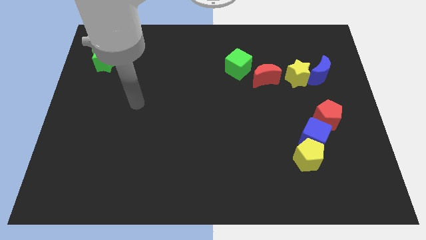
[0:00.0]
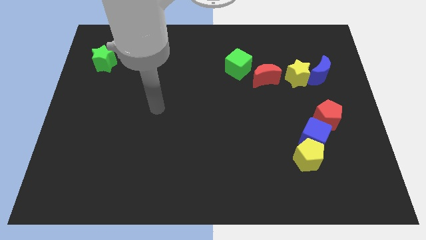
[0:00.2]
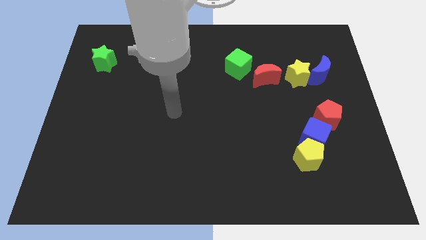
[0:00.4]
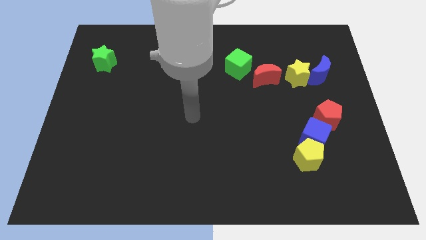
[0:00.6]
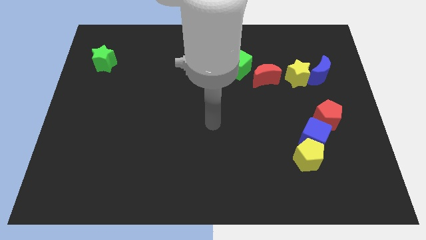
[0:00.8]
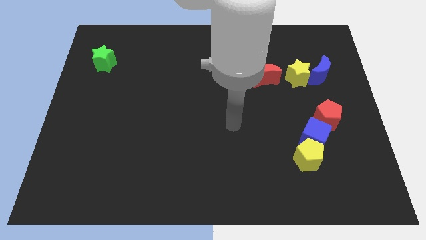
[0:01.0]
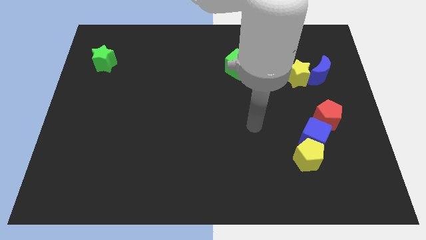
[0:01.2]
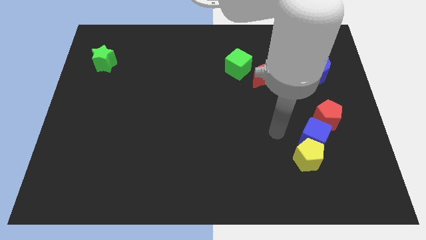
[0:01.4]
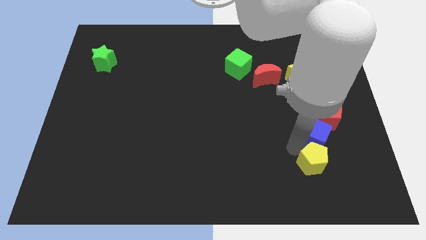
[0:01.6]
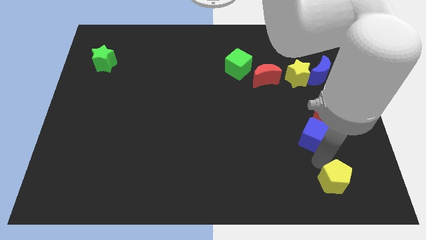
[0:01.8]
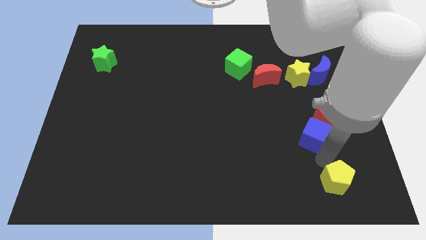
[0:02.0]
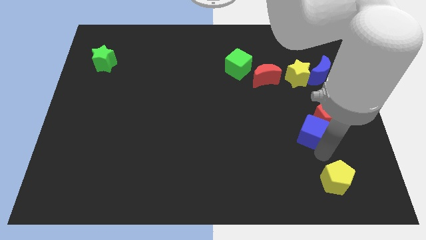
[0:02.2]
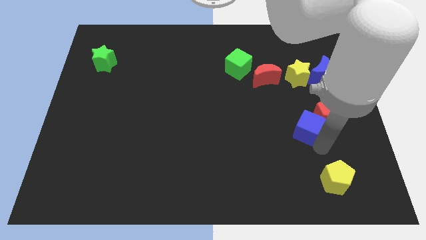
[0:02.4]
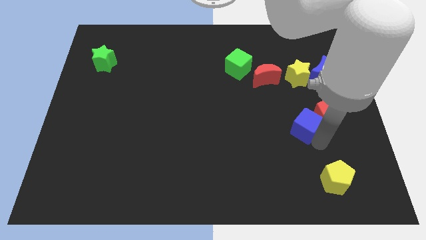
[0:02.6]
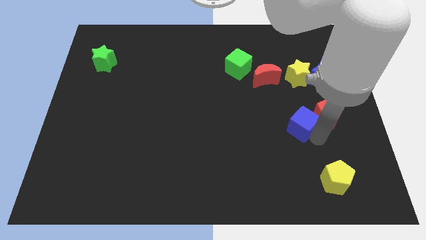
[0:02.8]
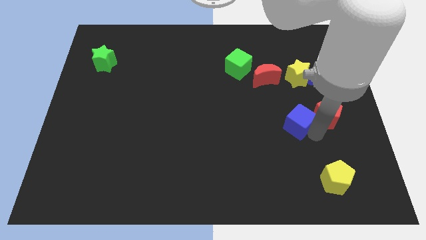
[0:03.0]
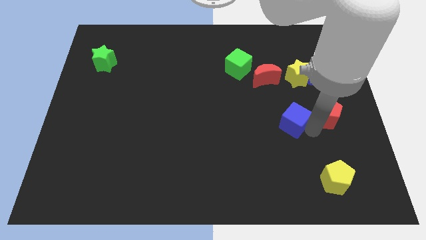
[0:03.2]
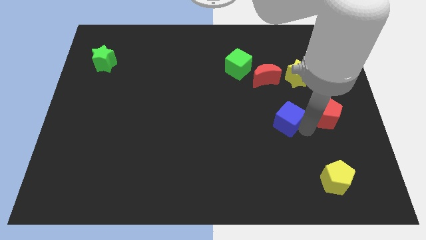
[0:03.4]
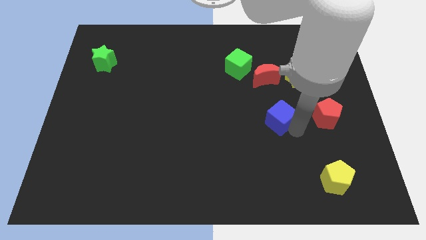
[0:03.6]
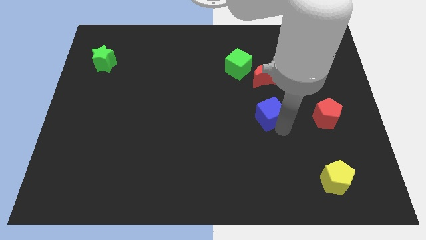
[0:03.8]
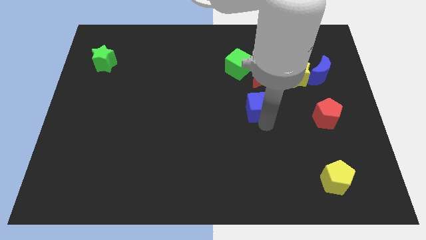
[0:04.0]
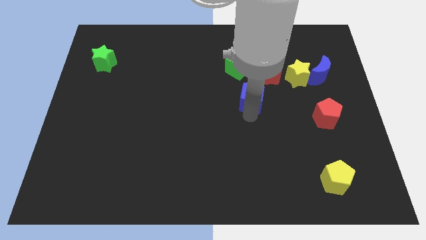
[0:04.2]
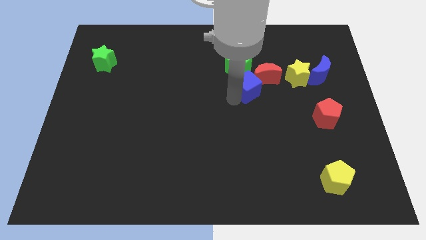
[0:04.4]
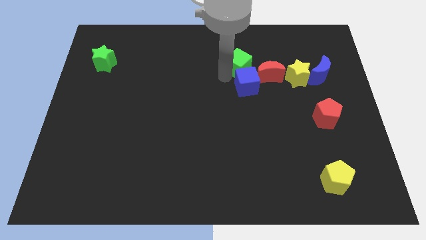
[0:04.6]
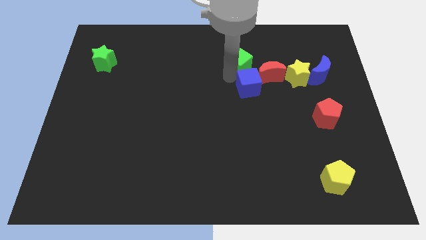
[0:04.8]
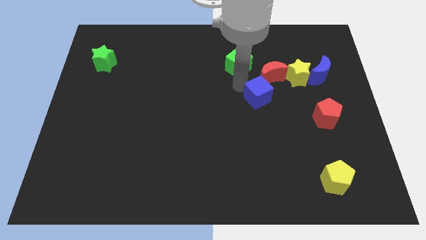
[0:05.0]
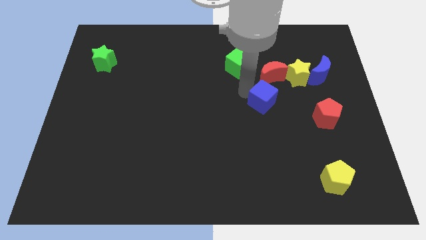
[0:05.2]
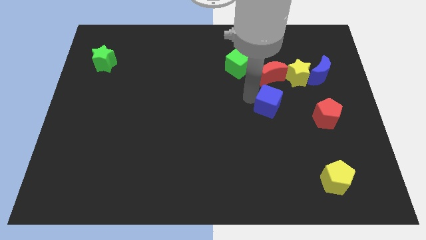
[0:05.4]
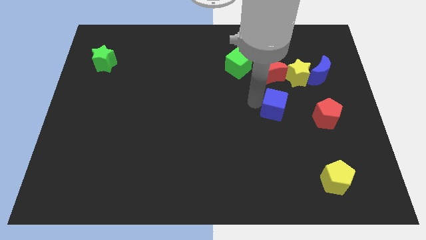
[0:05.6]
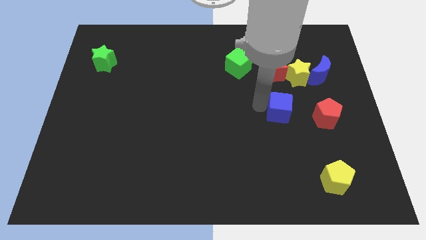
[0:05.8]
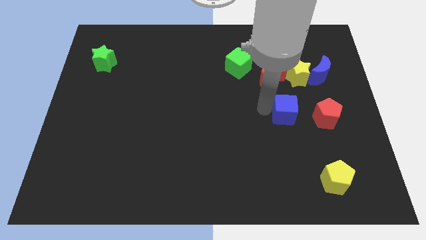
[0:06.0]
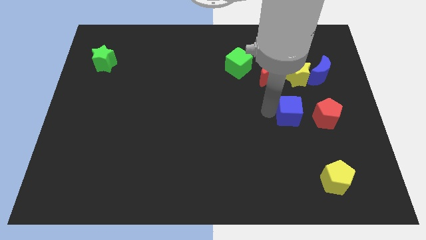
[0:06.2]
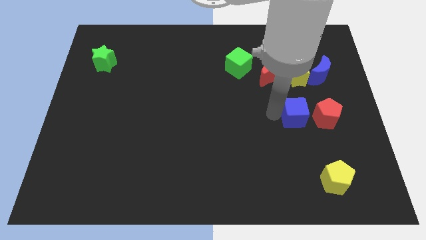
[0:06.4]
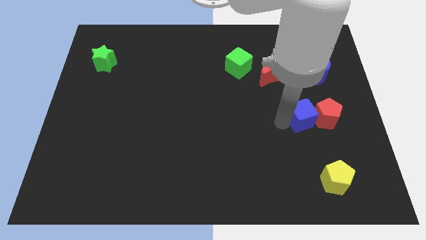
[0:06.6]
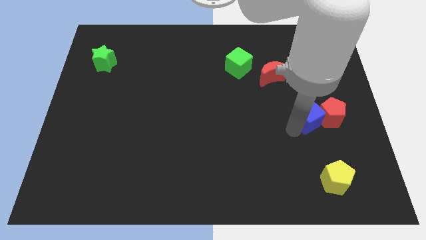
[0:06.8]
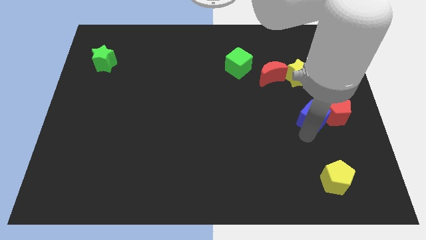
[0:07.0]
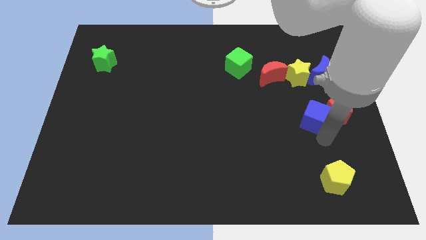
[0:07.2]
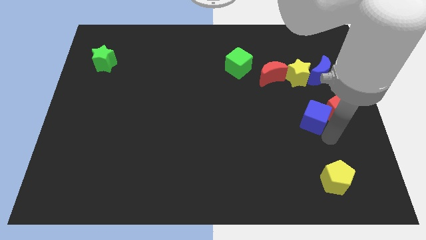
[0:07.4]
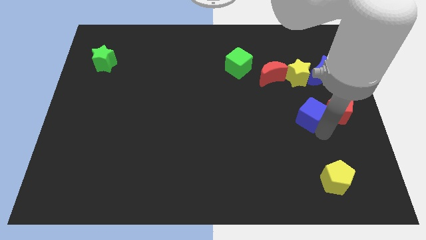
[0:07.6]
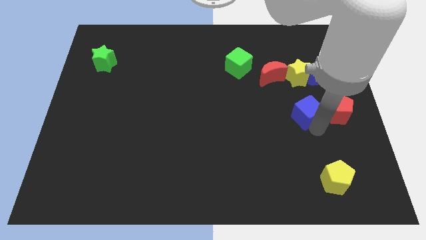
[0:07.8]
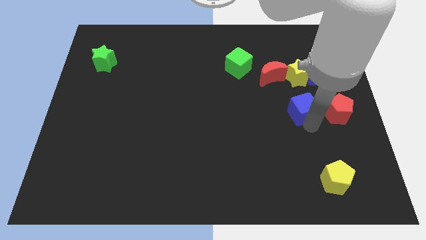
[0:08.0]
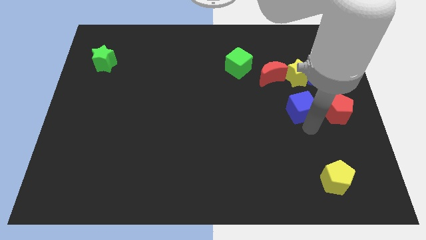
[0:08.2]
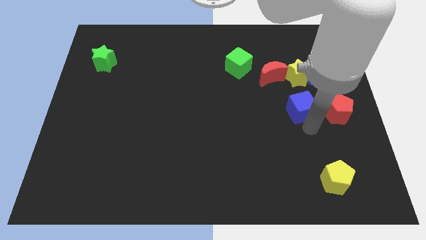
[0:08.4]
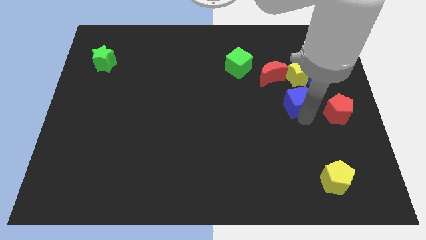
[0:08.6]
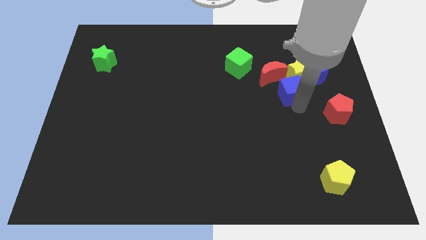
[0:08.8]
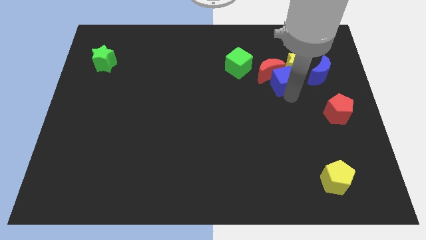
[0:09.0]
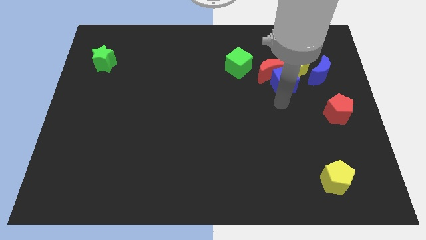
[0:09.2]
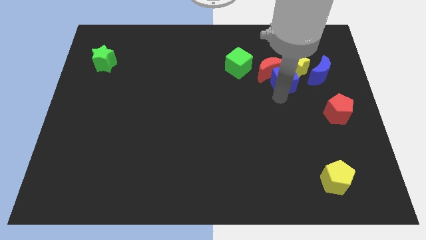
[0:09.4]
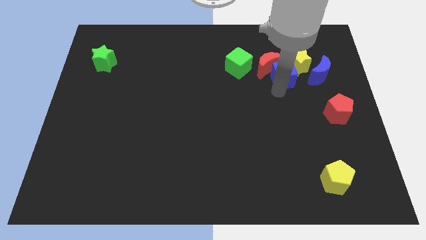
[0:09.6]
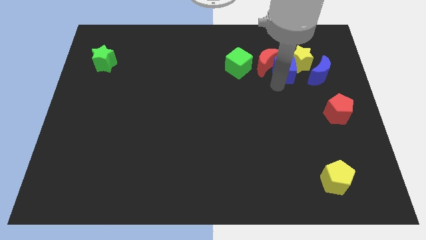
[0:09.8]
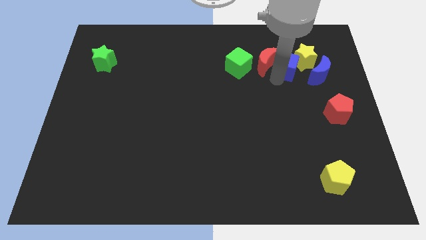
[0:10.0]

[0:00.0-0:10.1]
put the blue cube diagonally up and to the right of the red moon

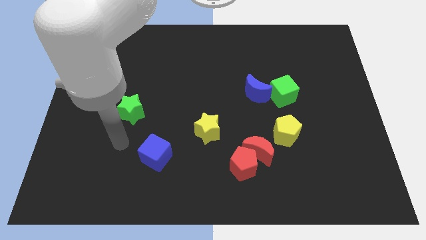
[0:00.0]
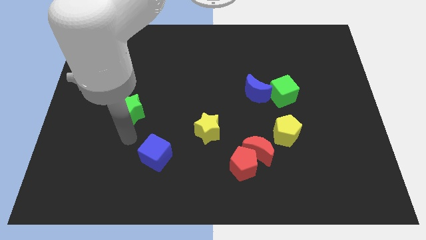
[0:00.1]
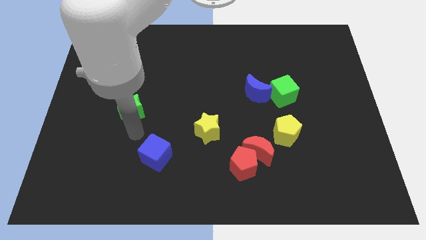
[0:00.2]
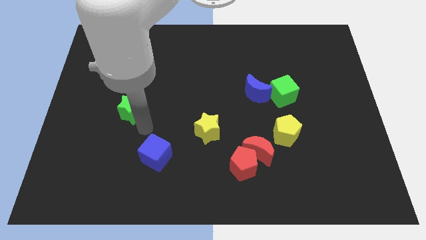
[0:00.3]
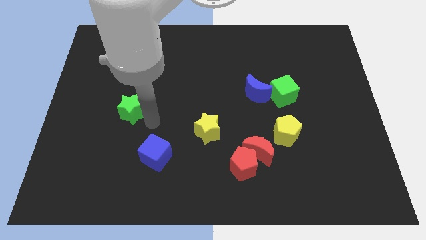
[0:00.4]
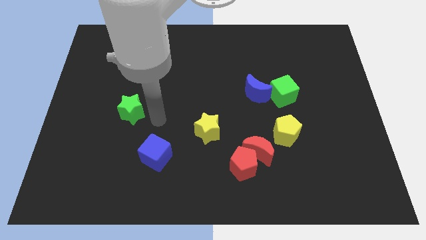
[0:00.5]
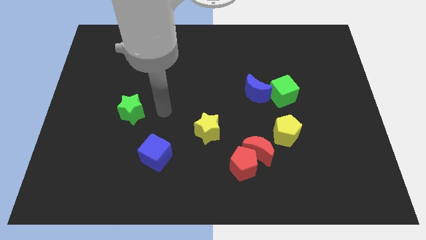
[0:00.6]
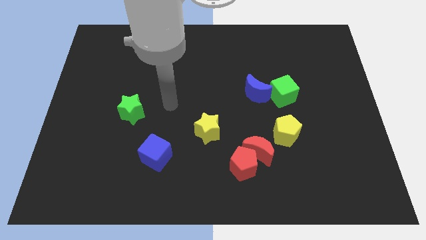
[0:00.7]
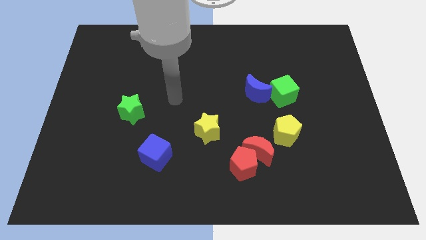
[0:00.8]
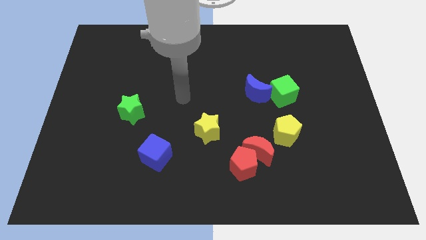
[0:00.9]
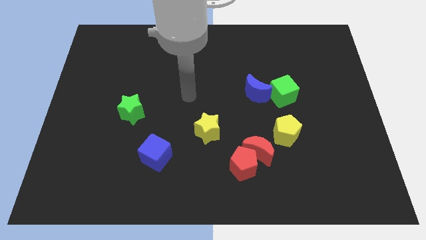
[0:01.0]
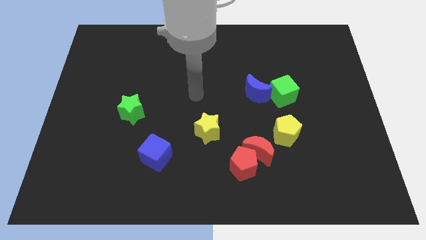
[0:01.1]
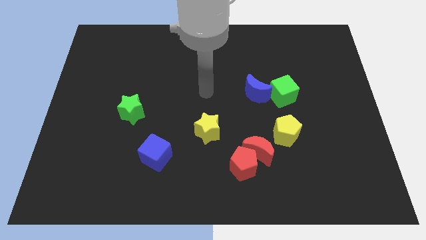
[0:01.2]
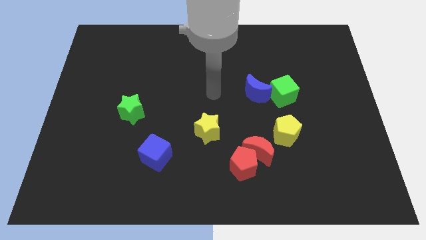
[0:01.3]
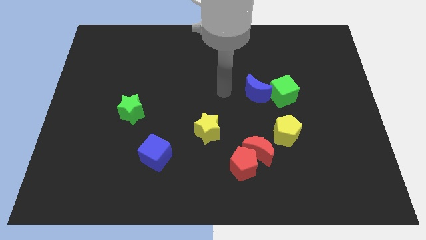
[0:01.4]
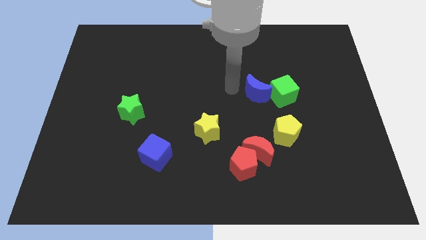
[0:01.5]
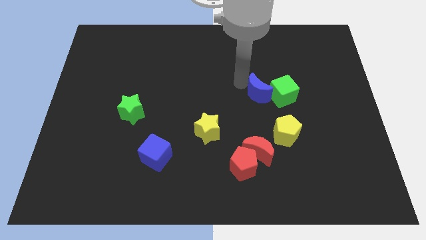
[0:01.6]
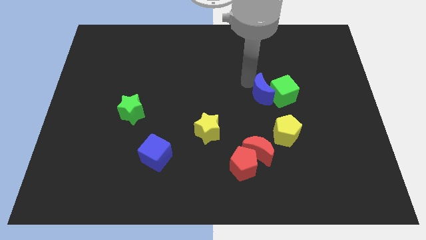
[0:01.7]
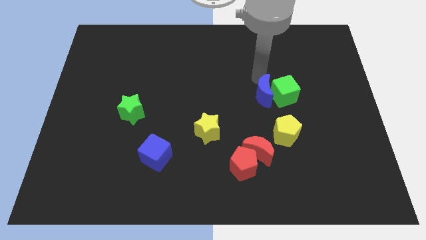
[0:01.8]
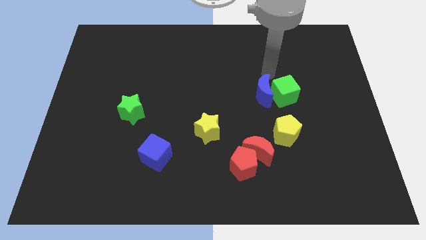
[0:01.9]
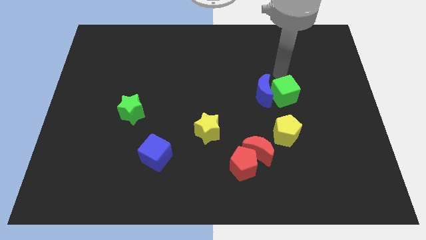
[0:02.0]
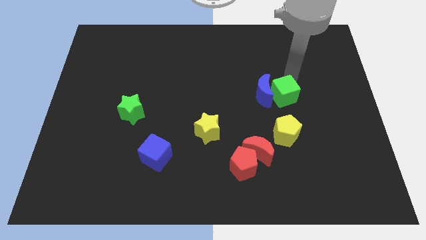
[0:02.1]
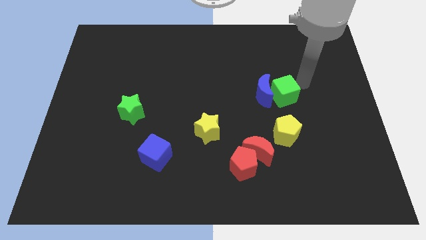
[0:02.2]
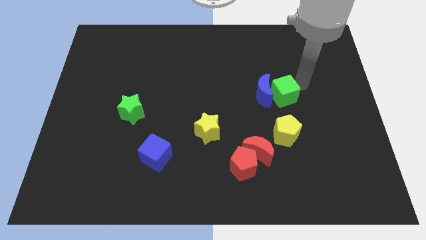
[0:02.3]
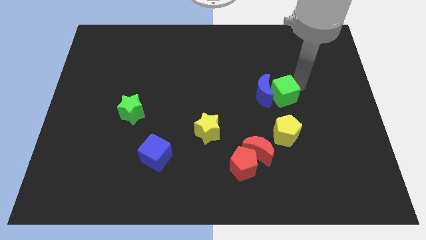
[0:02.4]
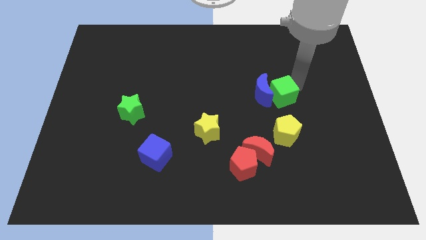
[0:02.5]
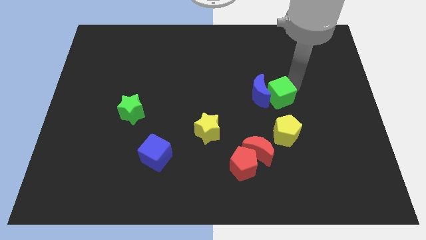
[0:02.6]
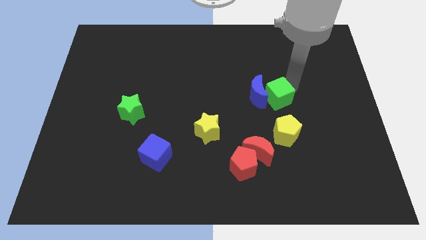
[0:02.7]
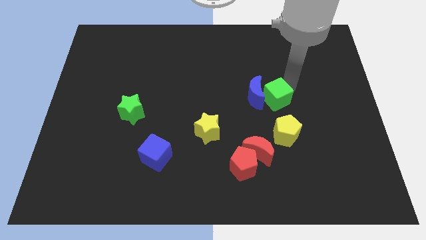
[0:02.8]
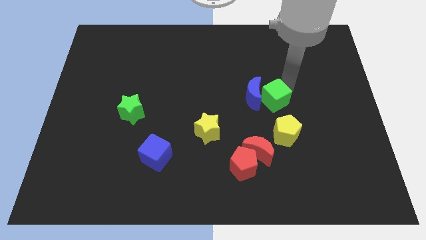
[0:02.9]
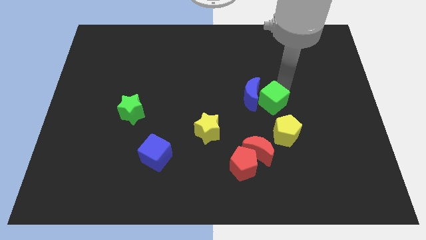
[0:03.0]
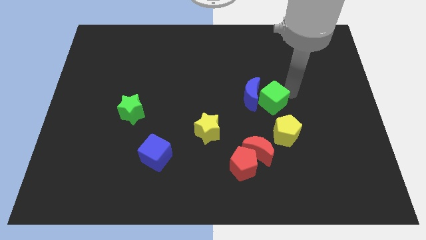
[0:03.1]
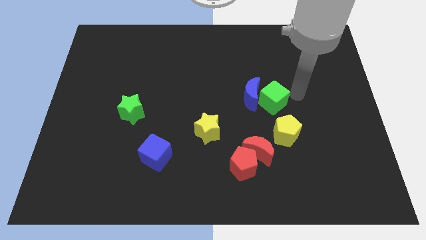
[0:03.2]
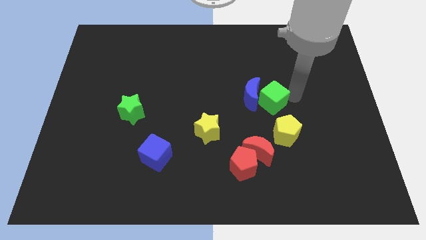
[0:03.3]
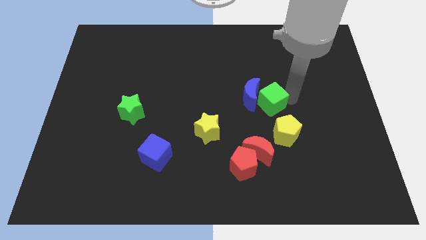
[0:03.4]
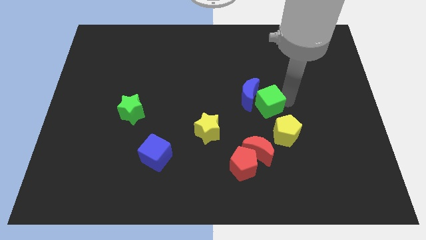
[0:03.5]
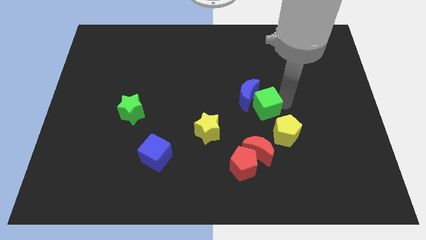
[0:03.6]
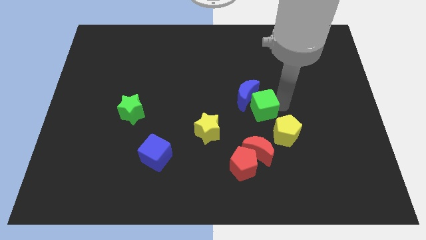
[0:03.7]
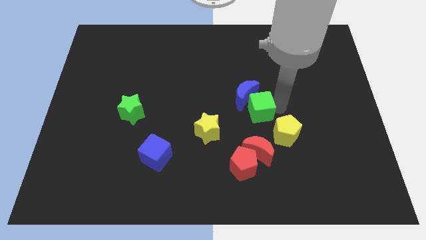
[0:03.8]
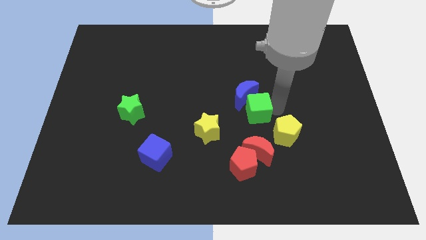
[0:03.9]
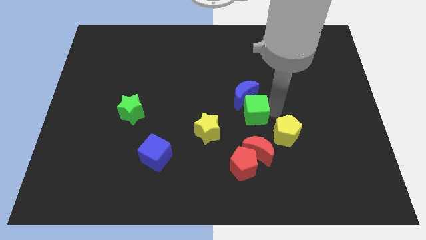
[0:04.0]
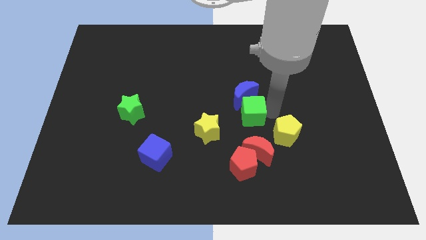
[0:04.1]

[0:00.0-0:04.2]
push the green cube to the top right side of the yellow star
